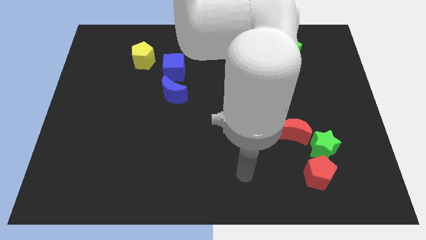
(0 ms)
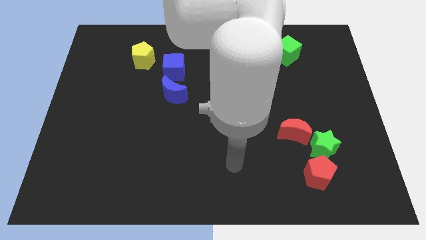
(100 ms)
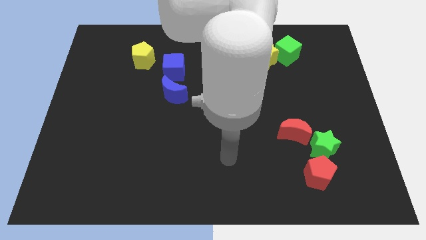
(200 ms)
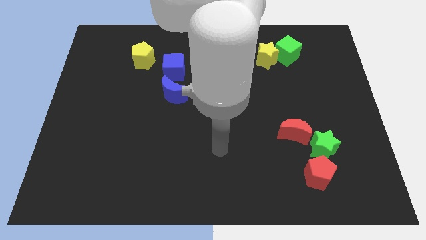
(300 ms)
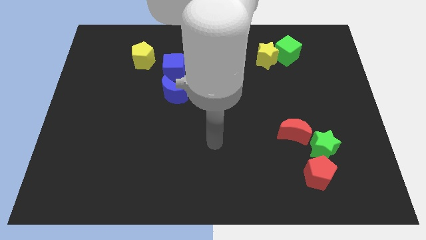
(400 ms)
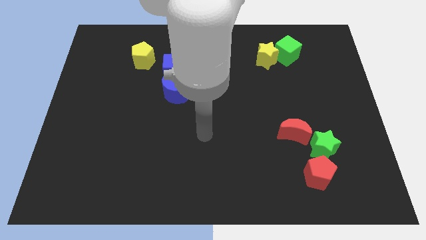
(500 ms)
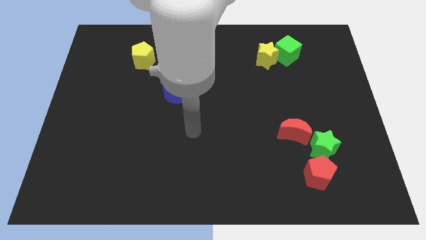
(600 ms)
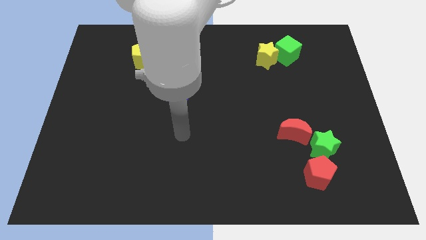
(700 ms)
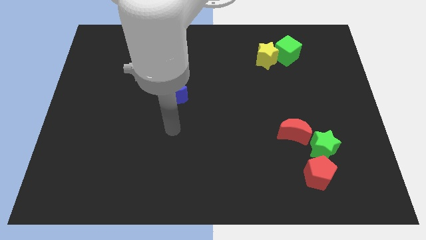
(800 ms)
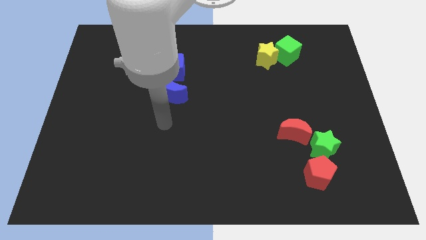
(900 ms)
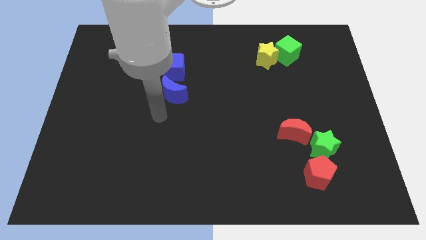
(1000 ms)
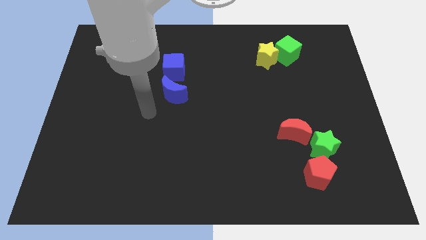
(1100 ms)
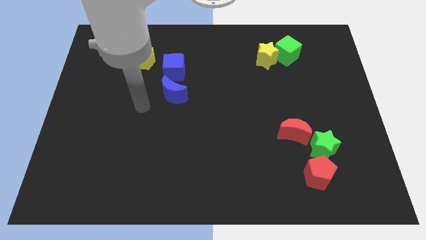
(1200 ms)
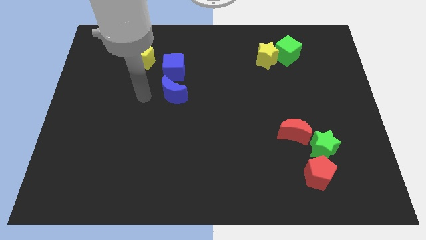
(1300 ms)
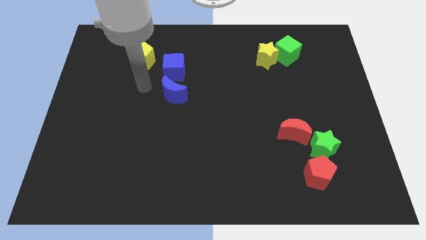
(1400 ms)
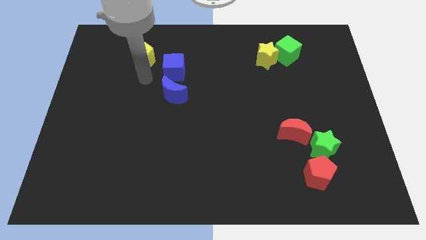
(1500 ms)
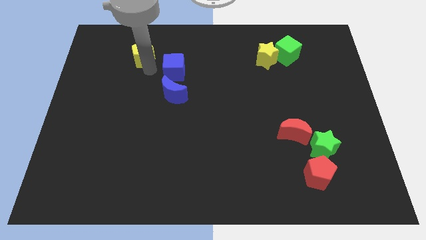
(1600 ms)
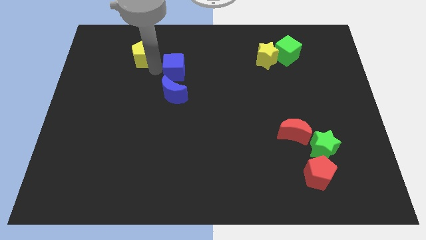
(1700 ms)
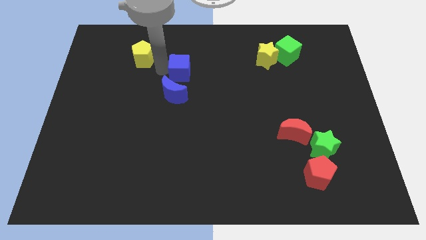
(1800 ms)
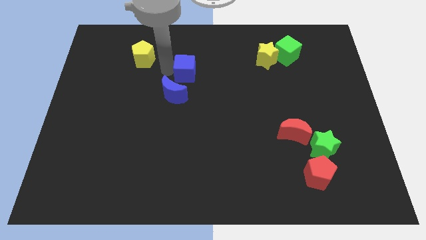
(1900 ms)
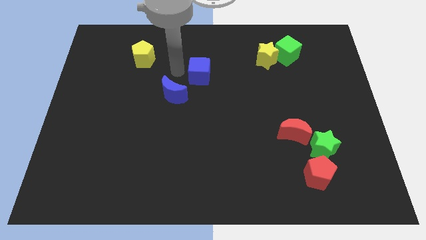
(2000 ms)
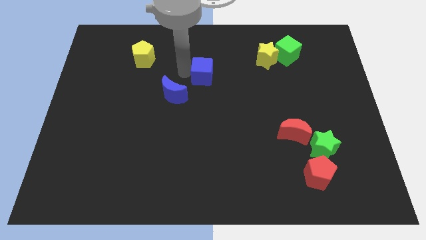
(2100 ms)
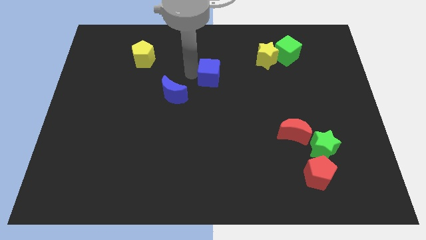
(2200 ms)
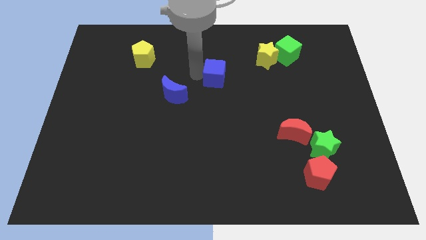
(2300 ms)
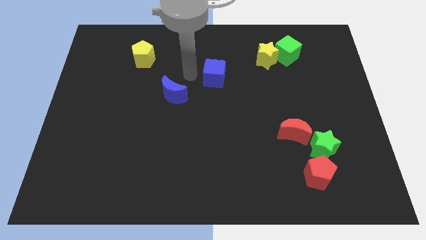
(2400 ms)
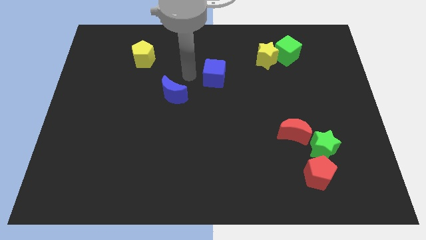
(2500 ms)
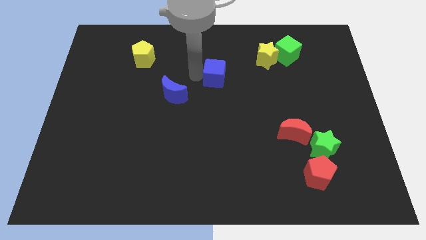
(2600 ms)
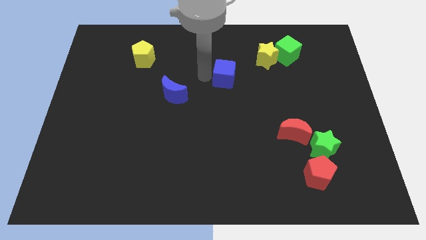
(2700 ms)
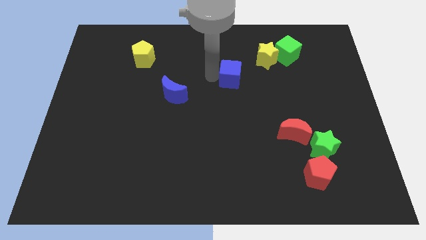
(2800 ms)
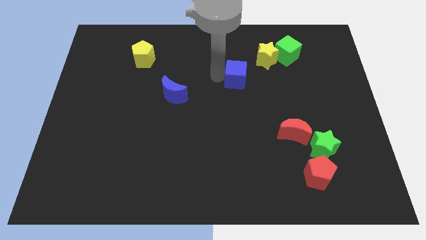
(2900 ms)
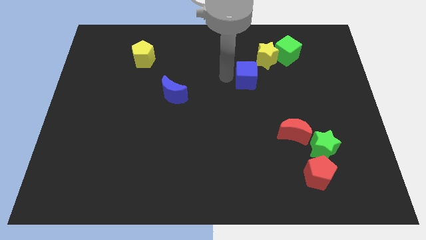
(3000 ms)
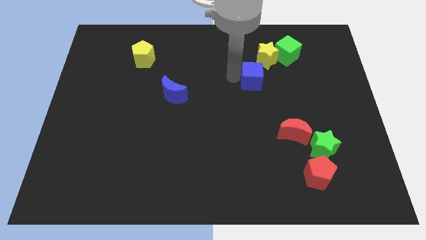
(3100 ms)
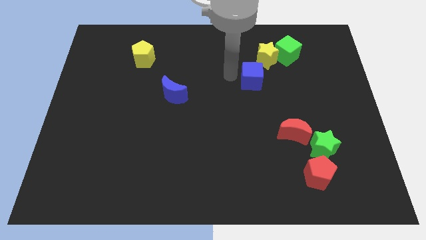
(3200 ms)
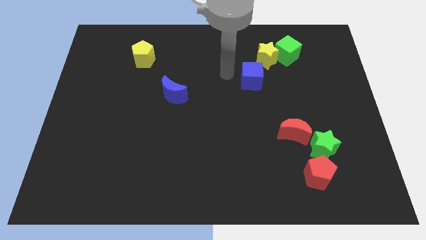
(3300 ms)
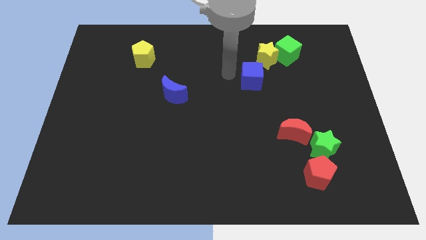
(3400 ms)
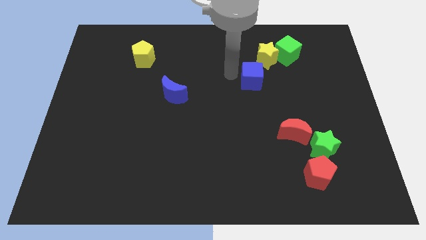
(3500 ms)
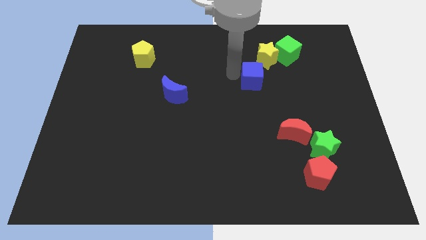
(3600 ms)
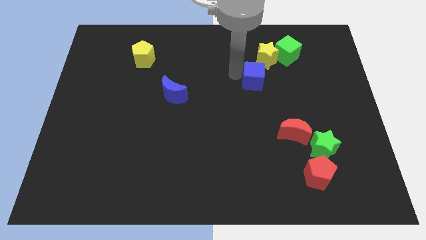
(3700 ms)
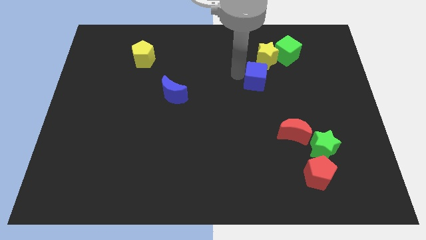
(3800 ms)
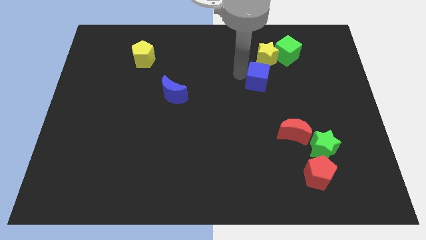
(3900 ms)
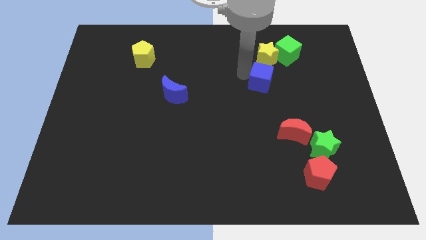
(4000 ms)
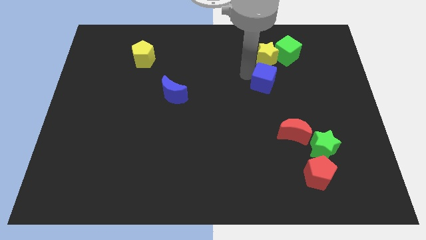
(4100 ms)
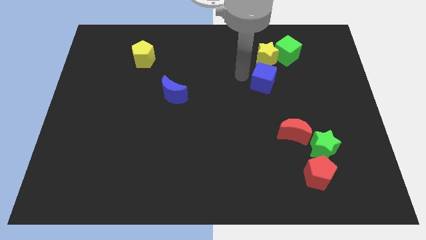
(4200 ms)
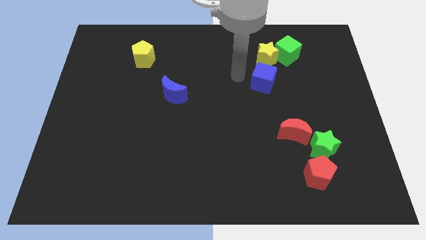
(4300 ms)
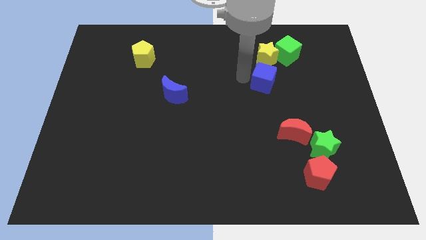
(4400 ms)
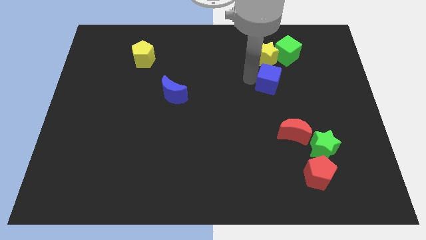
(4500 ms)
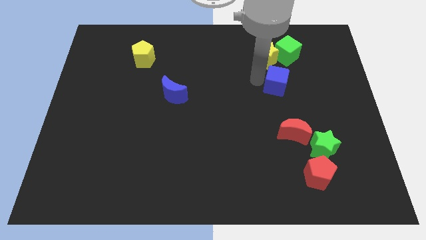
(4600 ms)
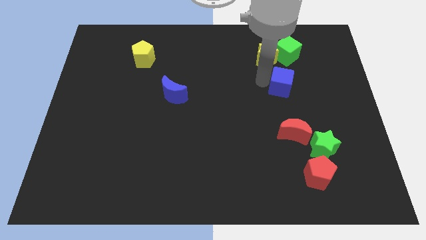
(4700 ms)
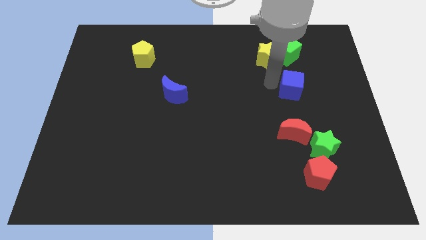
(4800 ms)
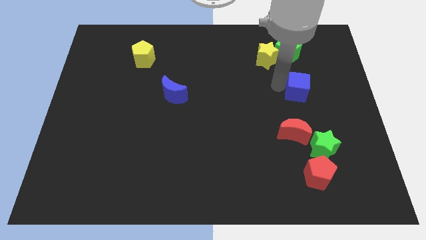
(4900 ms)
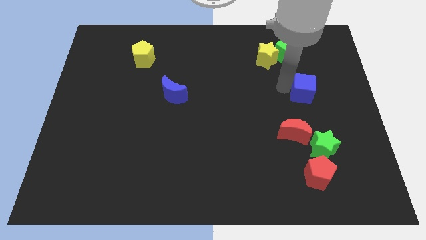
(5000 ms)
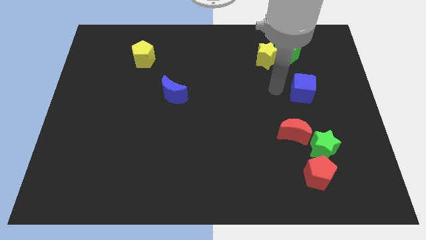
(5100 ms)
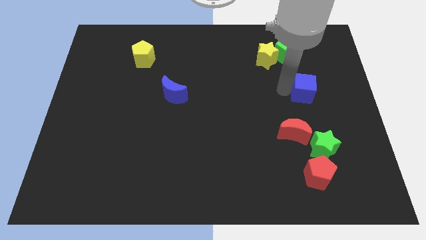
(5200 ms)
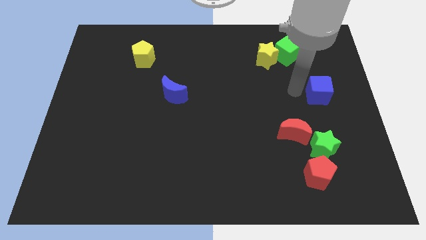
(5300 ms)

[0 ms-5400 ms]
put the blue cube to the right side of the board

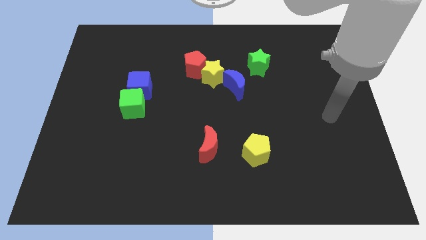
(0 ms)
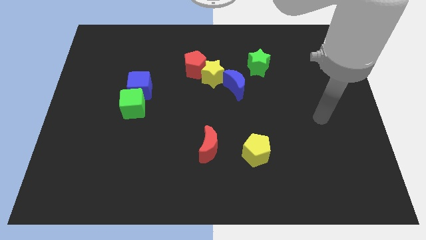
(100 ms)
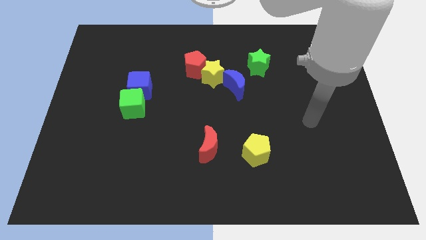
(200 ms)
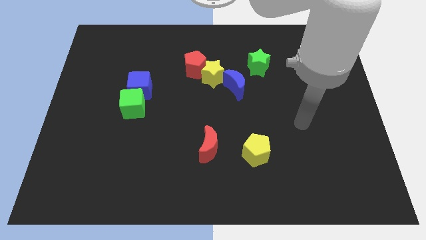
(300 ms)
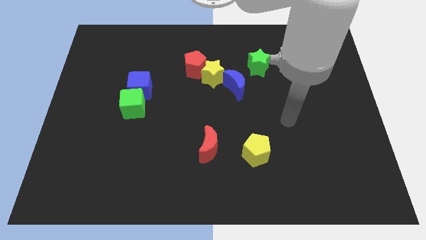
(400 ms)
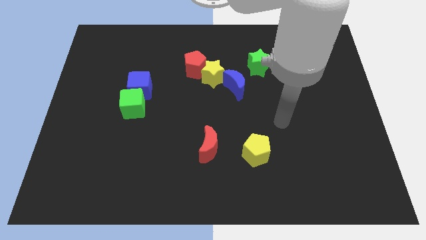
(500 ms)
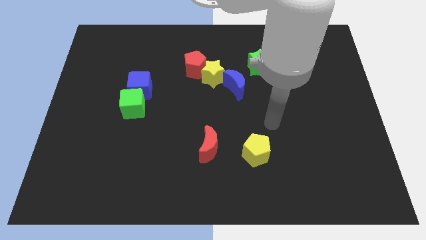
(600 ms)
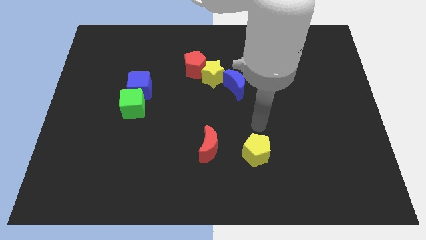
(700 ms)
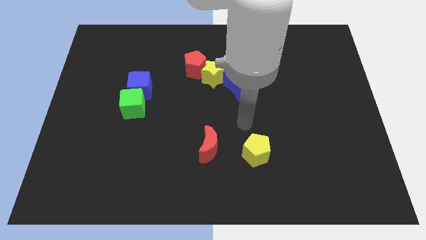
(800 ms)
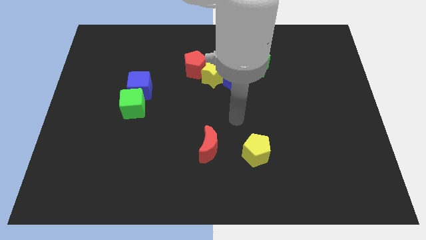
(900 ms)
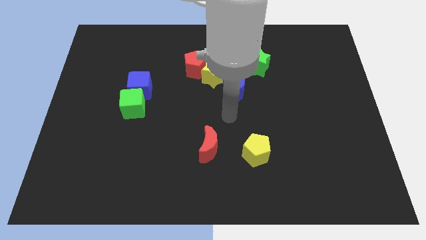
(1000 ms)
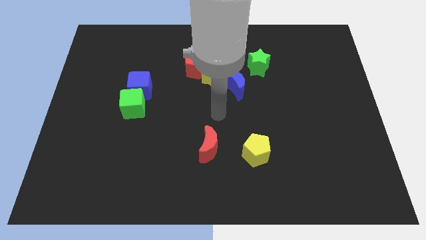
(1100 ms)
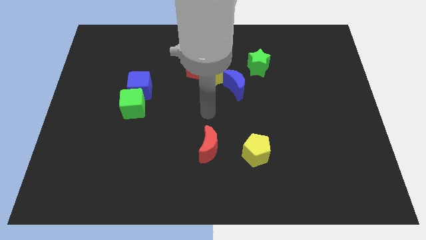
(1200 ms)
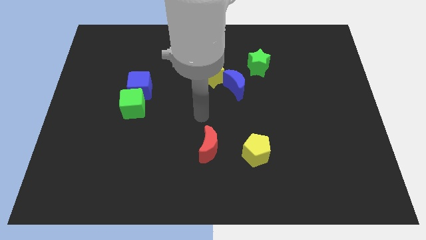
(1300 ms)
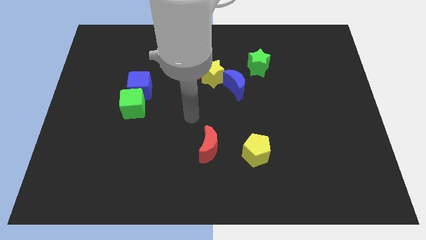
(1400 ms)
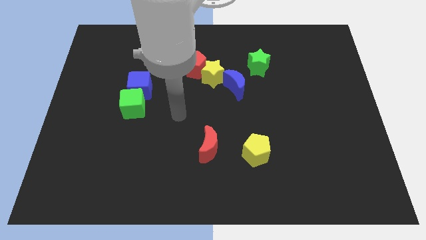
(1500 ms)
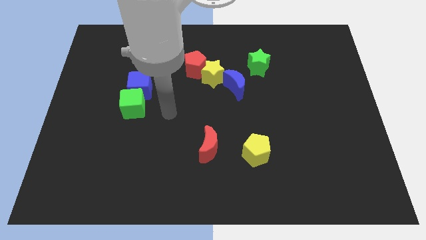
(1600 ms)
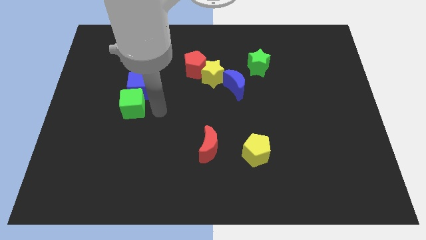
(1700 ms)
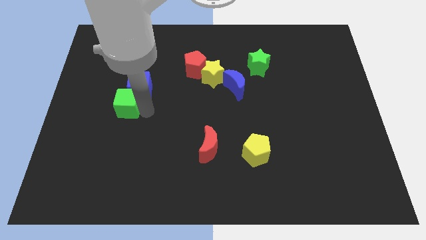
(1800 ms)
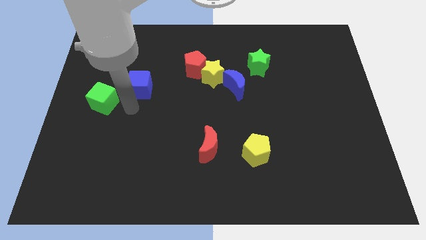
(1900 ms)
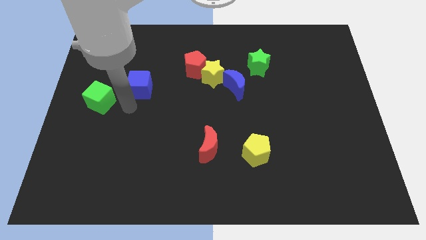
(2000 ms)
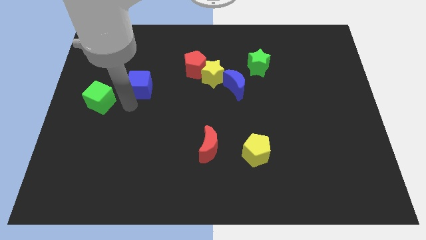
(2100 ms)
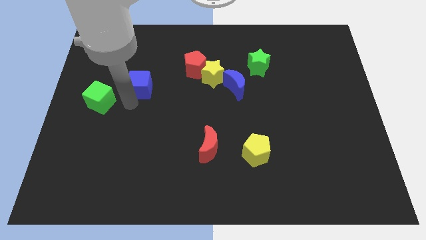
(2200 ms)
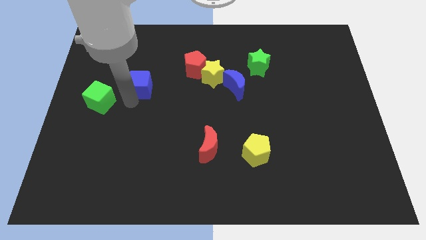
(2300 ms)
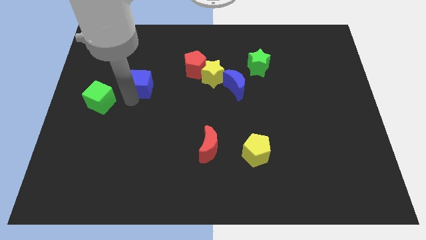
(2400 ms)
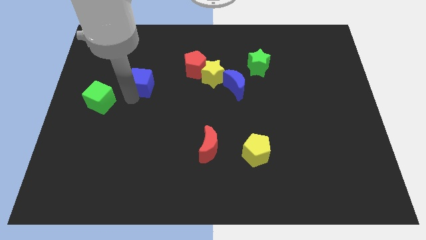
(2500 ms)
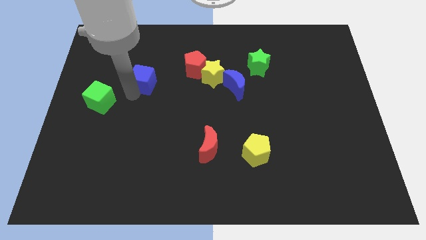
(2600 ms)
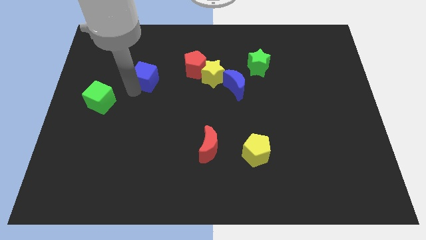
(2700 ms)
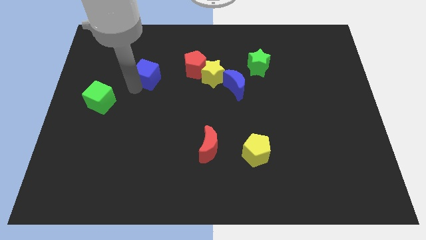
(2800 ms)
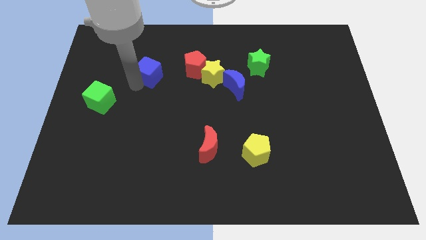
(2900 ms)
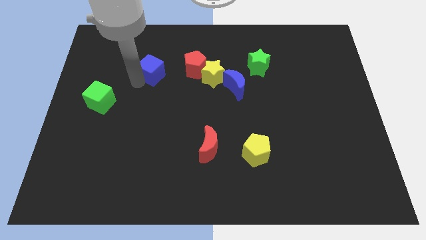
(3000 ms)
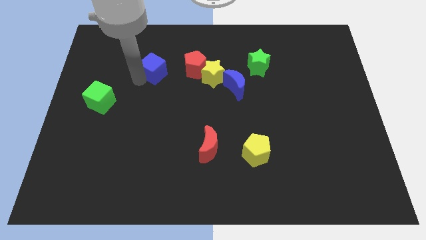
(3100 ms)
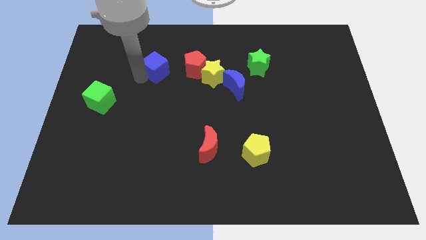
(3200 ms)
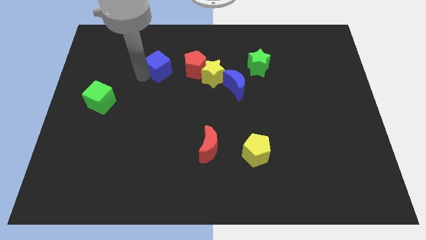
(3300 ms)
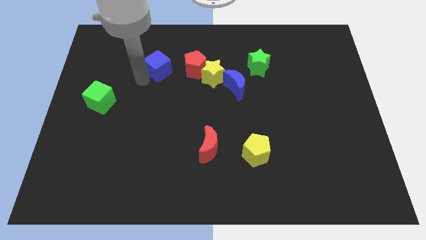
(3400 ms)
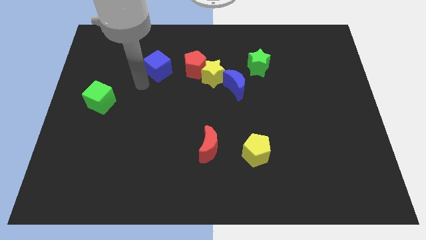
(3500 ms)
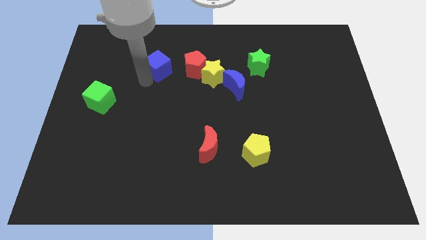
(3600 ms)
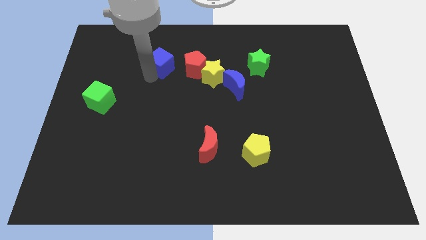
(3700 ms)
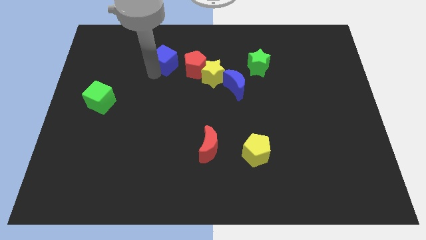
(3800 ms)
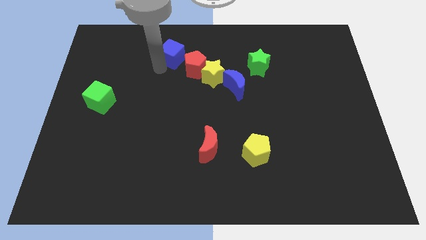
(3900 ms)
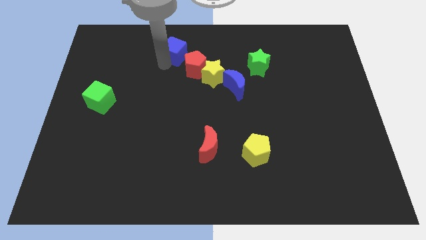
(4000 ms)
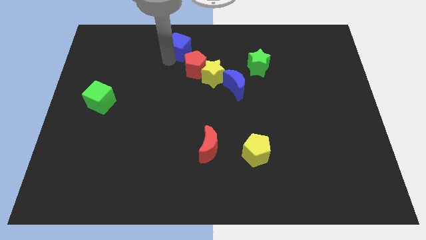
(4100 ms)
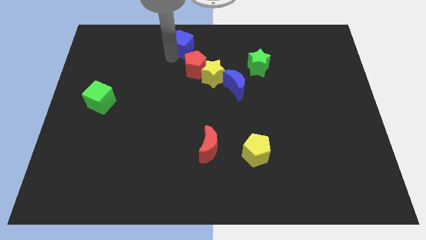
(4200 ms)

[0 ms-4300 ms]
put the blue cube to the towards your base
